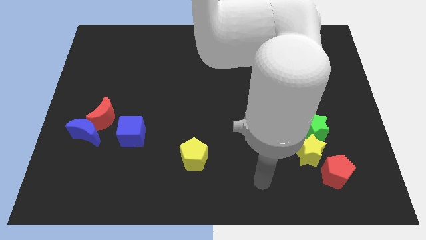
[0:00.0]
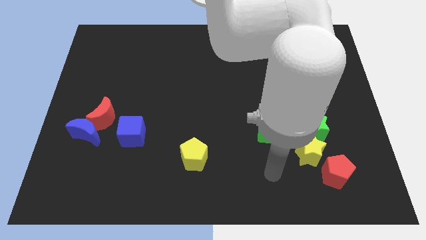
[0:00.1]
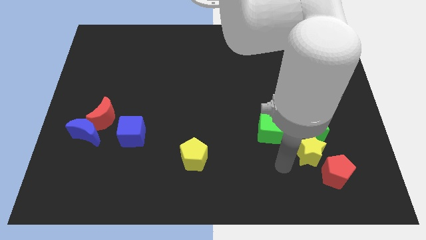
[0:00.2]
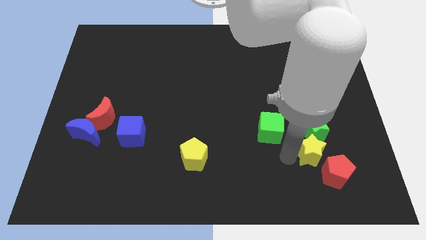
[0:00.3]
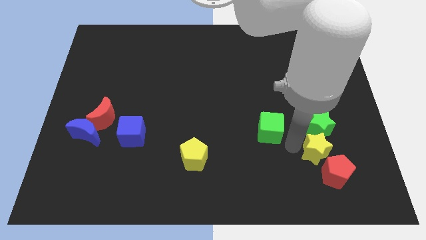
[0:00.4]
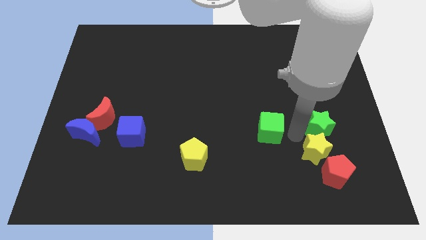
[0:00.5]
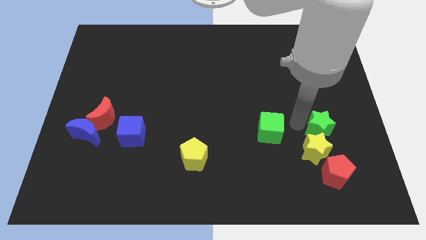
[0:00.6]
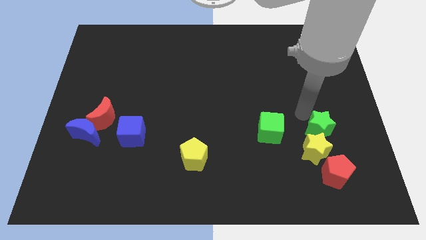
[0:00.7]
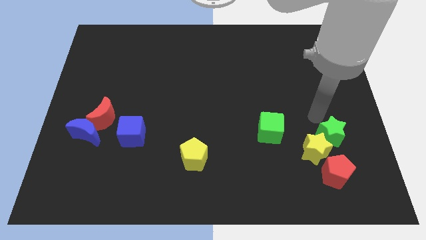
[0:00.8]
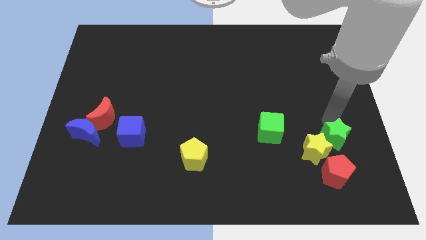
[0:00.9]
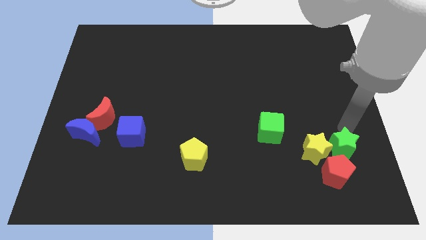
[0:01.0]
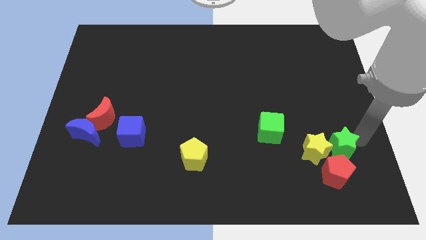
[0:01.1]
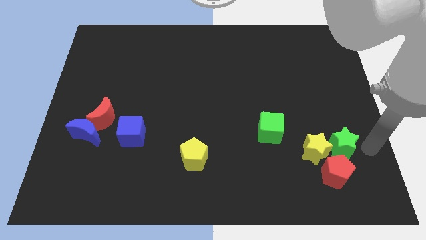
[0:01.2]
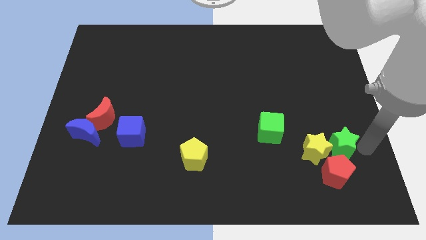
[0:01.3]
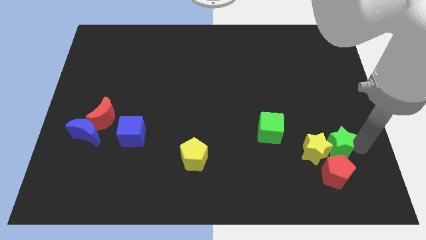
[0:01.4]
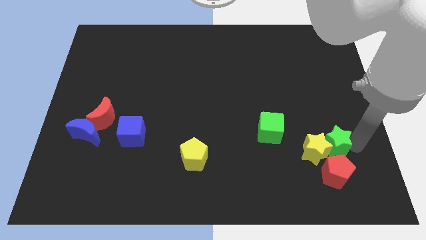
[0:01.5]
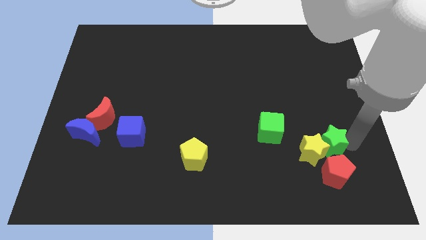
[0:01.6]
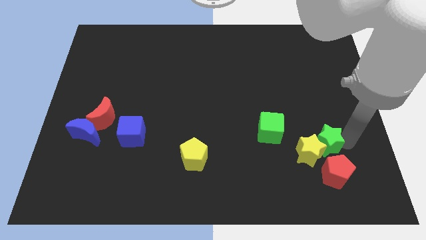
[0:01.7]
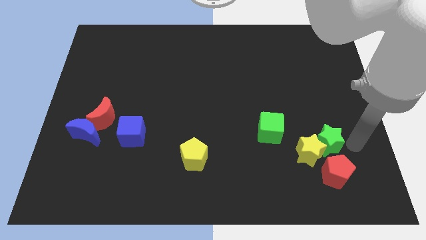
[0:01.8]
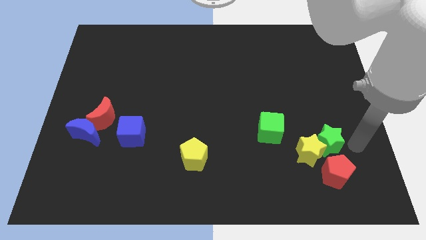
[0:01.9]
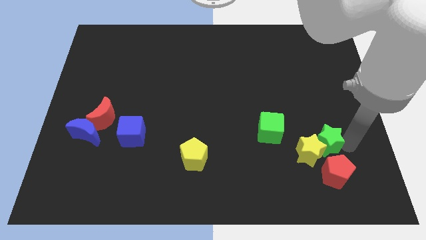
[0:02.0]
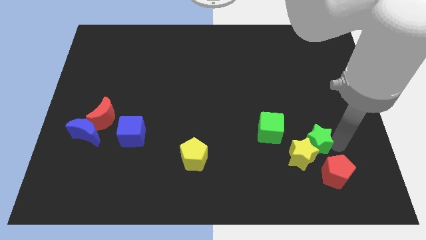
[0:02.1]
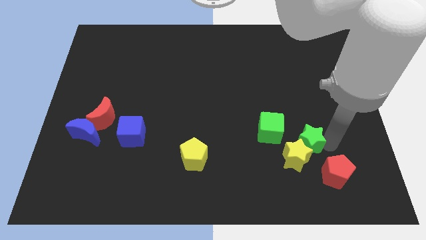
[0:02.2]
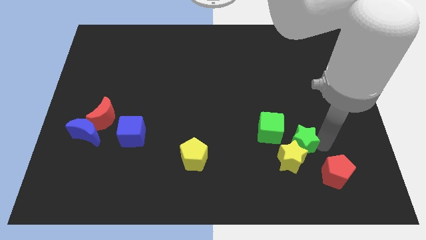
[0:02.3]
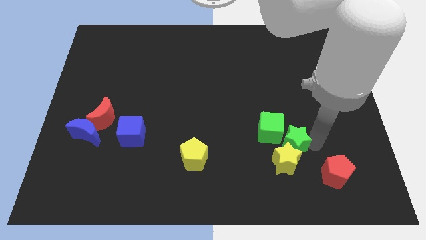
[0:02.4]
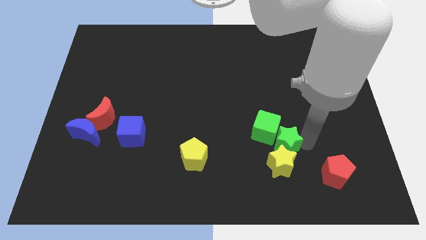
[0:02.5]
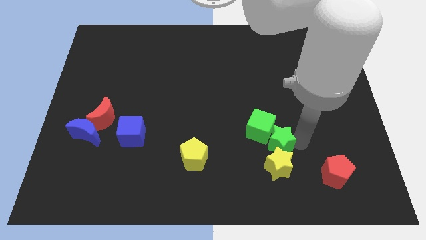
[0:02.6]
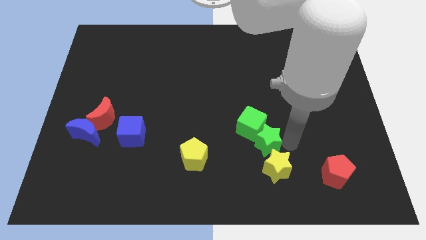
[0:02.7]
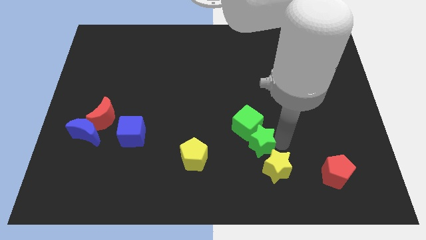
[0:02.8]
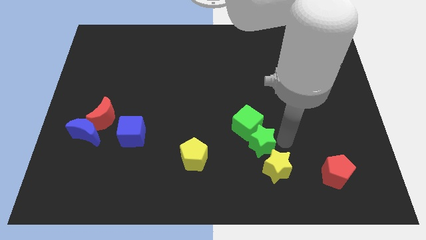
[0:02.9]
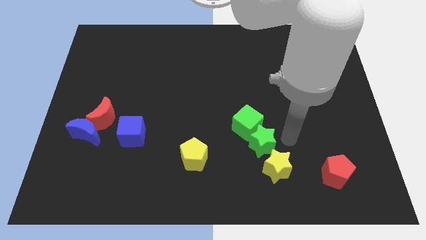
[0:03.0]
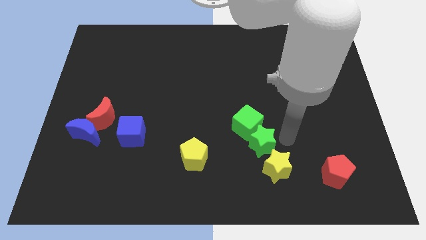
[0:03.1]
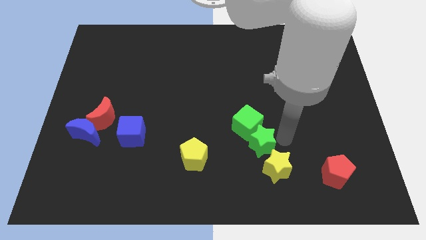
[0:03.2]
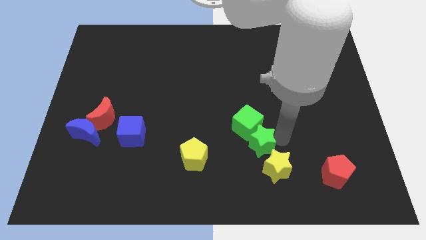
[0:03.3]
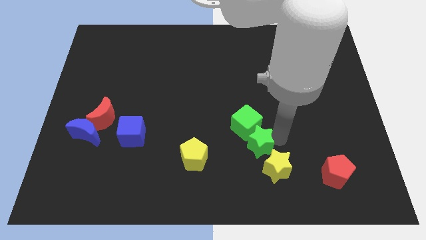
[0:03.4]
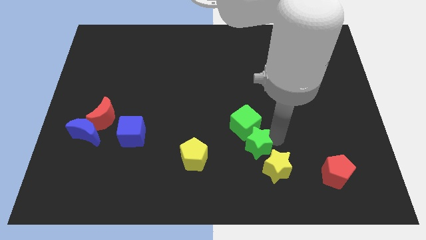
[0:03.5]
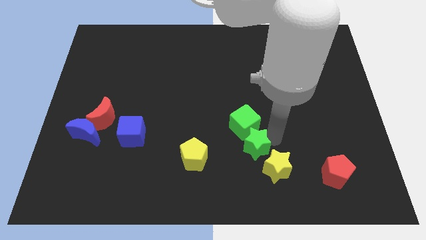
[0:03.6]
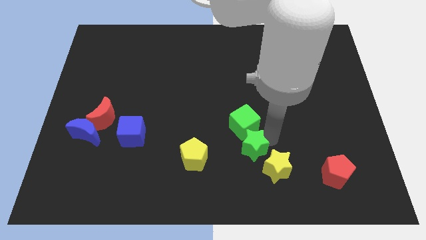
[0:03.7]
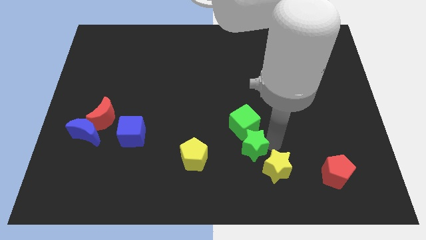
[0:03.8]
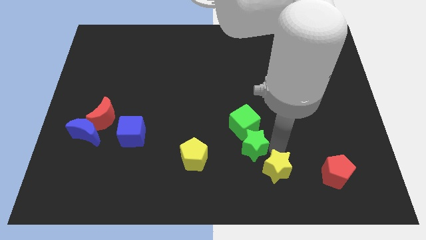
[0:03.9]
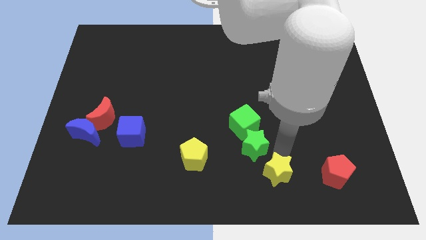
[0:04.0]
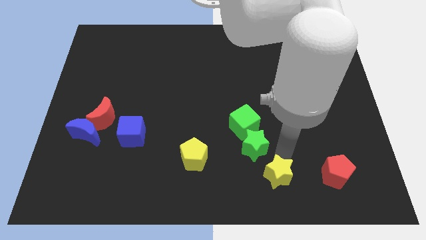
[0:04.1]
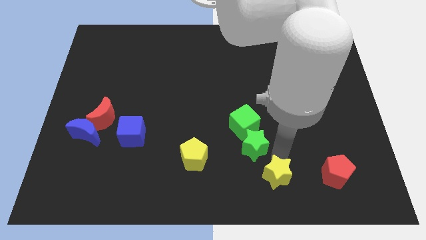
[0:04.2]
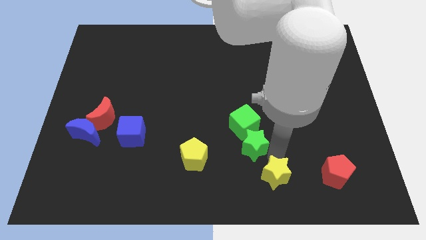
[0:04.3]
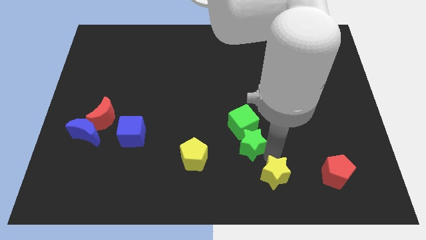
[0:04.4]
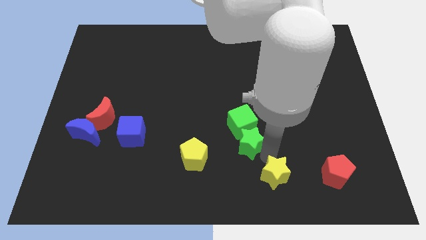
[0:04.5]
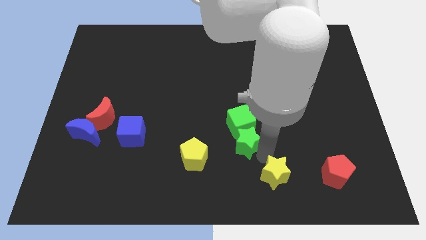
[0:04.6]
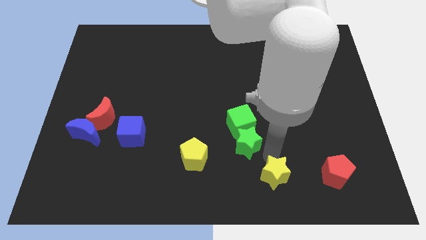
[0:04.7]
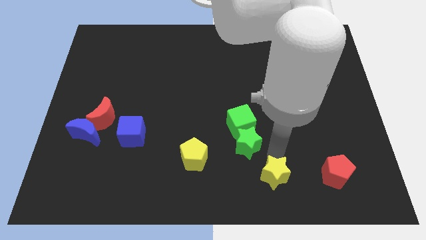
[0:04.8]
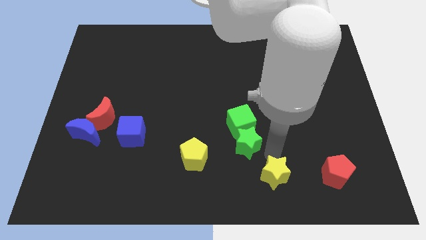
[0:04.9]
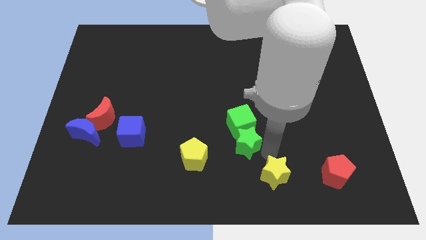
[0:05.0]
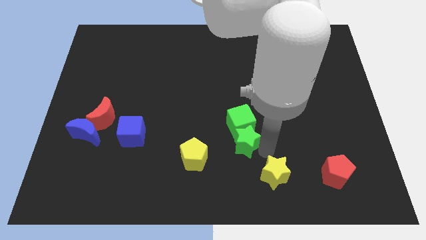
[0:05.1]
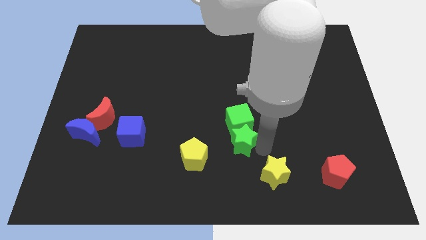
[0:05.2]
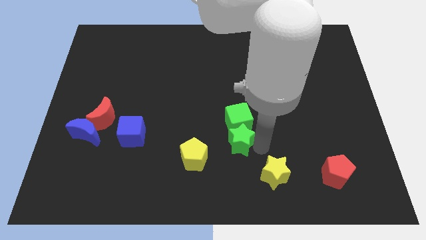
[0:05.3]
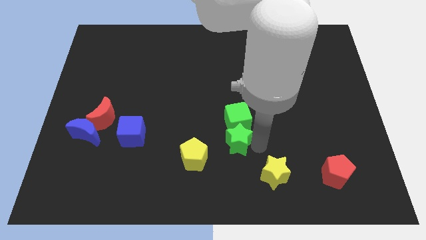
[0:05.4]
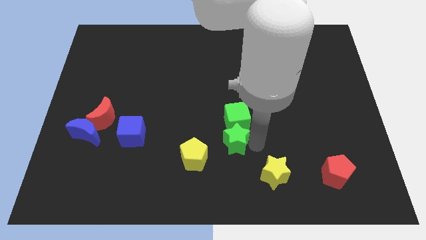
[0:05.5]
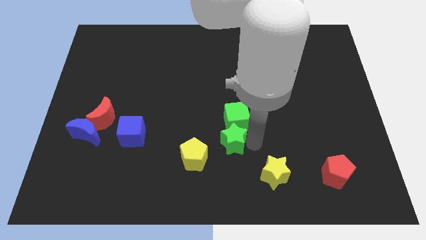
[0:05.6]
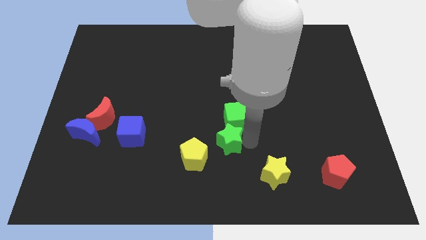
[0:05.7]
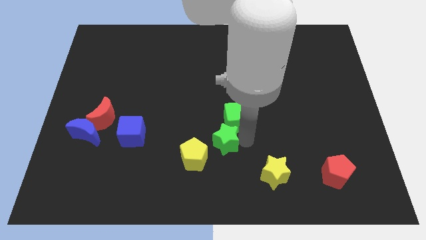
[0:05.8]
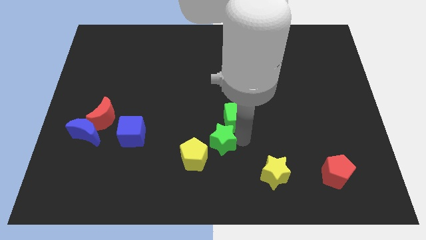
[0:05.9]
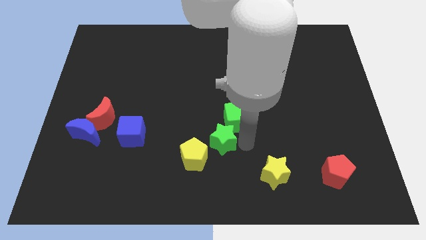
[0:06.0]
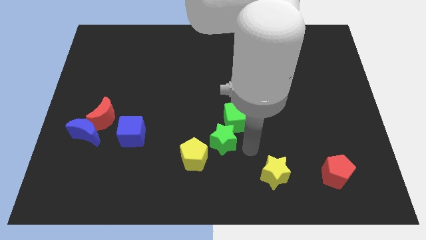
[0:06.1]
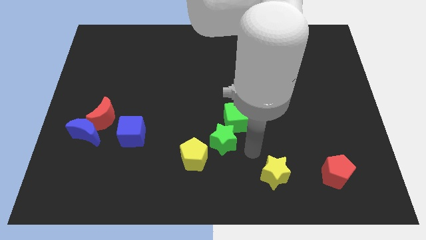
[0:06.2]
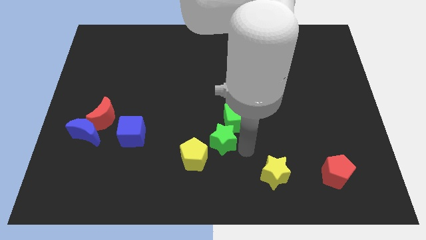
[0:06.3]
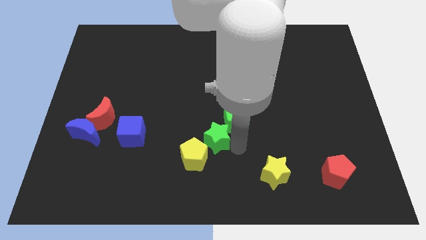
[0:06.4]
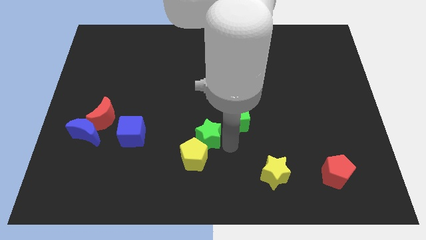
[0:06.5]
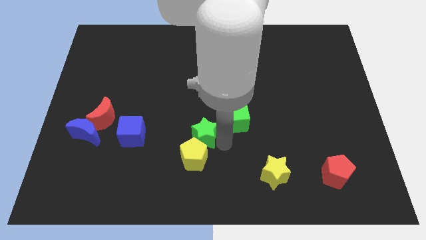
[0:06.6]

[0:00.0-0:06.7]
put the green star to the right of the blue cube
